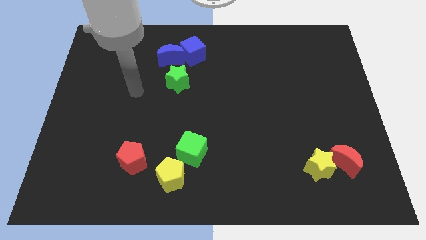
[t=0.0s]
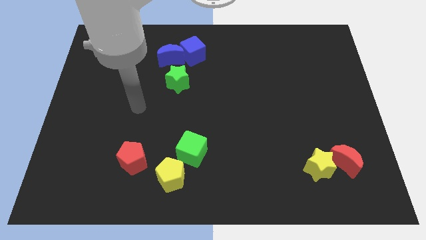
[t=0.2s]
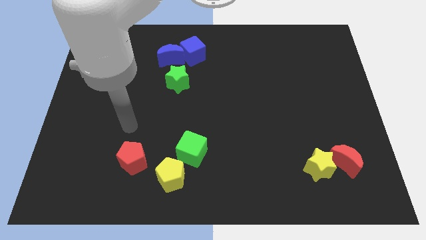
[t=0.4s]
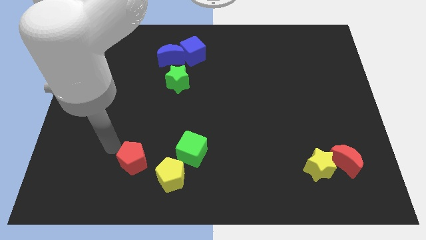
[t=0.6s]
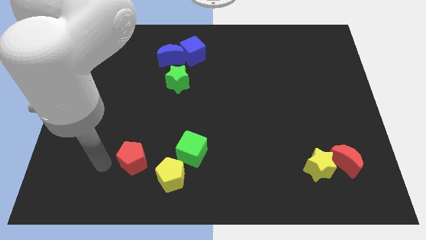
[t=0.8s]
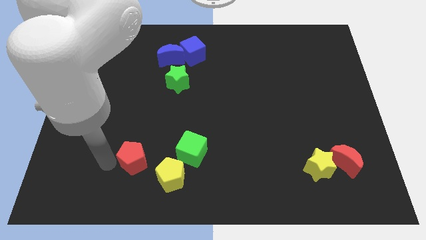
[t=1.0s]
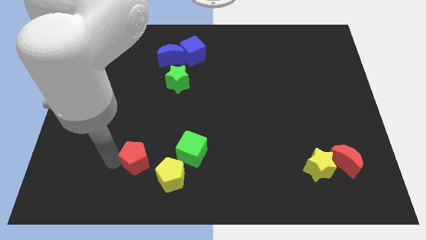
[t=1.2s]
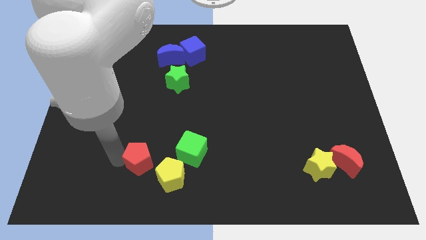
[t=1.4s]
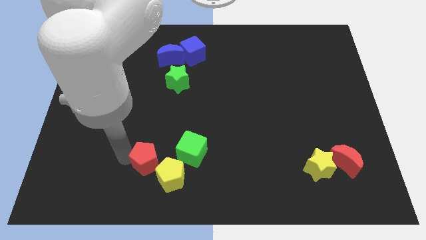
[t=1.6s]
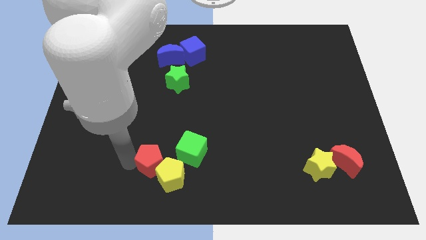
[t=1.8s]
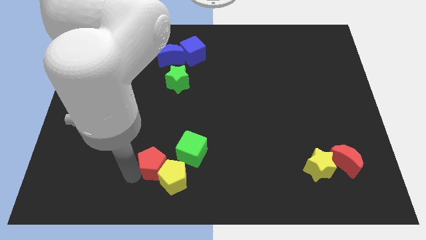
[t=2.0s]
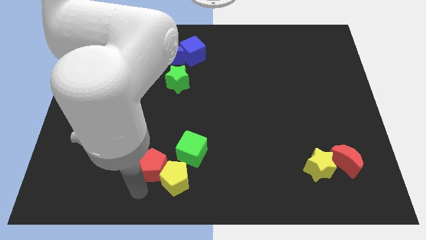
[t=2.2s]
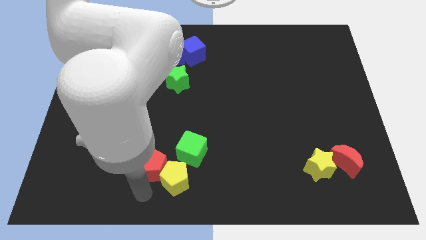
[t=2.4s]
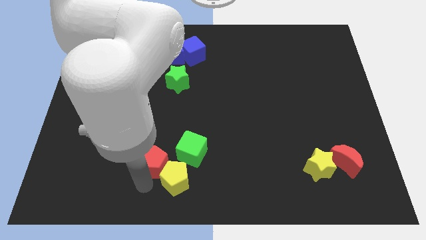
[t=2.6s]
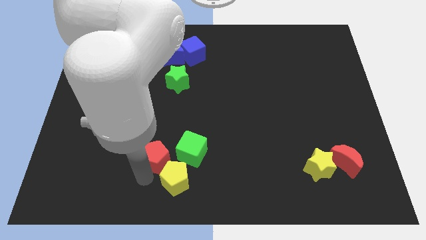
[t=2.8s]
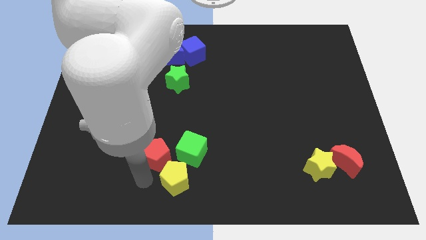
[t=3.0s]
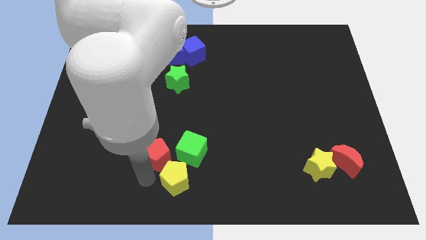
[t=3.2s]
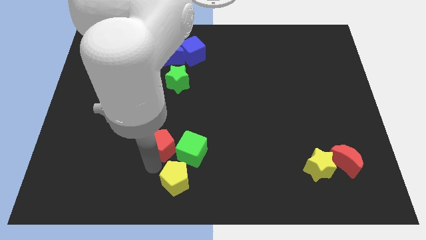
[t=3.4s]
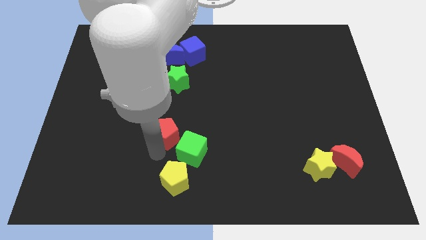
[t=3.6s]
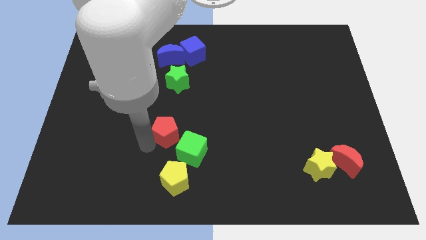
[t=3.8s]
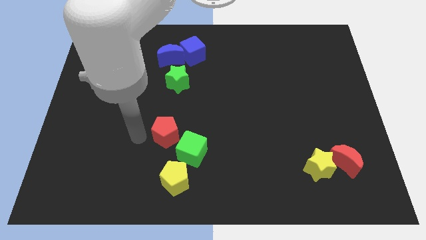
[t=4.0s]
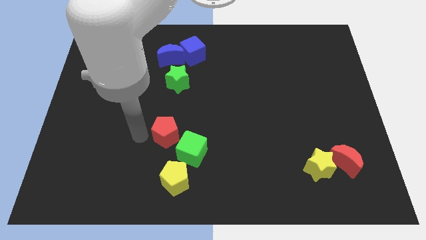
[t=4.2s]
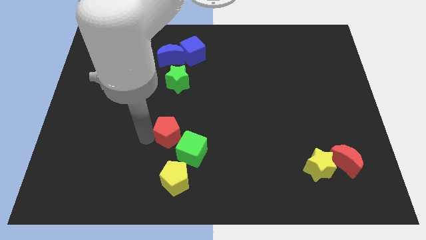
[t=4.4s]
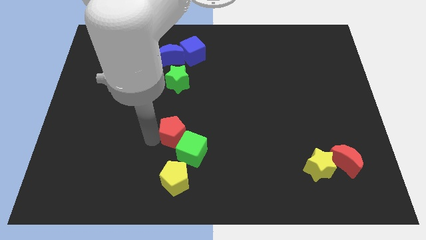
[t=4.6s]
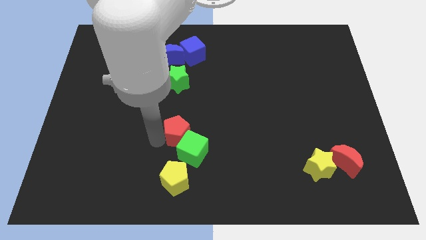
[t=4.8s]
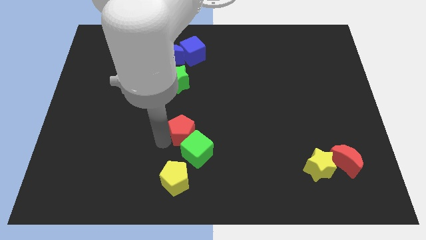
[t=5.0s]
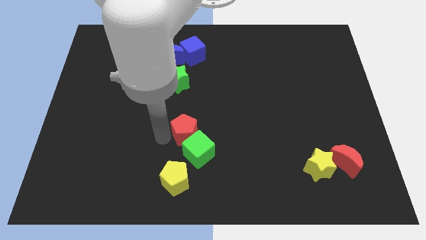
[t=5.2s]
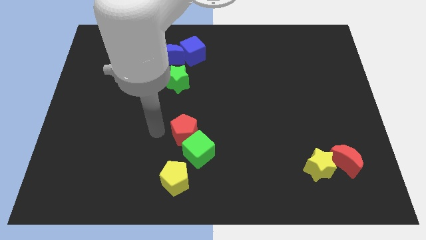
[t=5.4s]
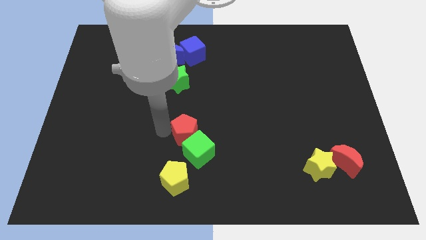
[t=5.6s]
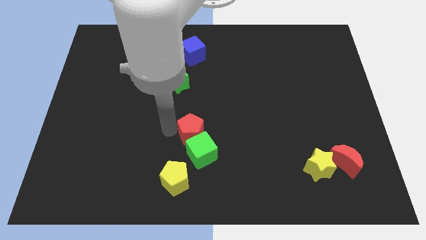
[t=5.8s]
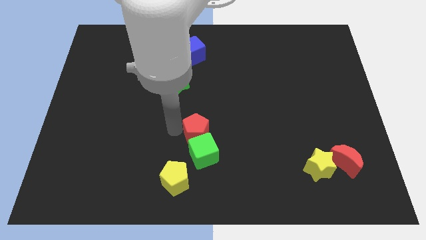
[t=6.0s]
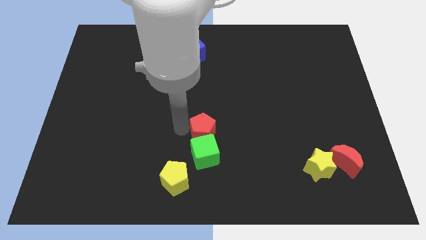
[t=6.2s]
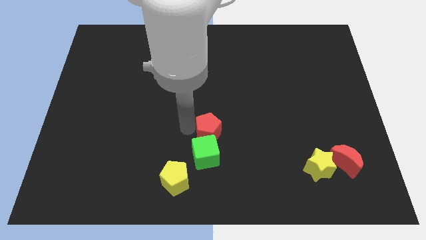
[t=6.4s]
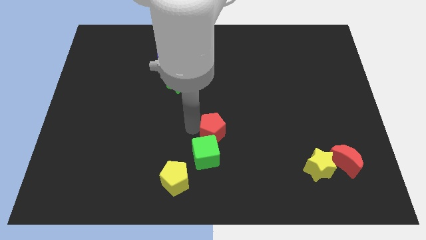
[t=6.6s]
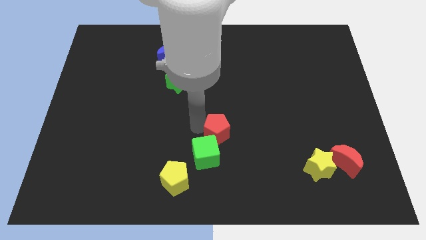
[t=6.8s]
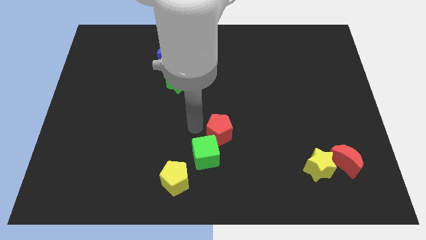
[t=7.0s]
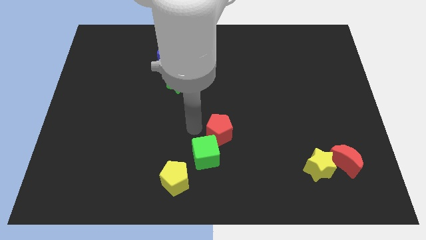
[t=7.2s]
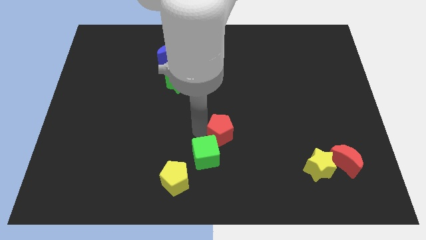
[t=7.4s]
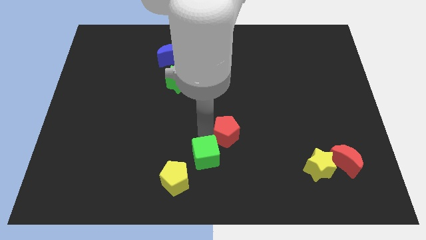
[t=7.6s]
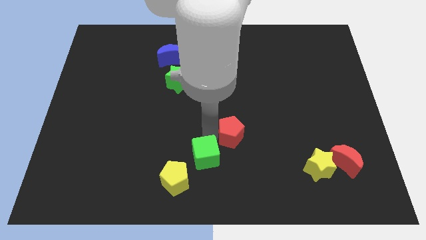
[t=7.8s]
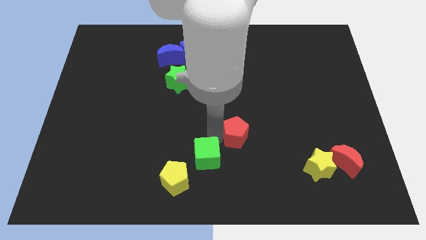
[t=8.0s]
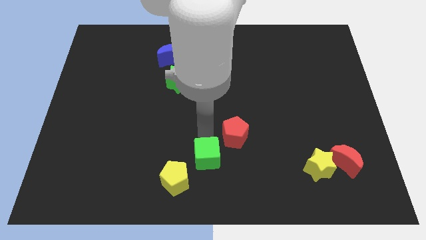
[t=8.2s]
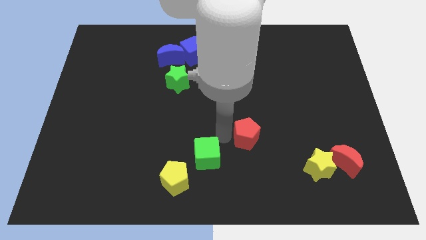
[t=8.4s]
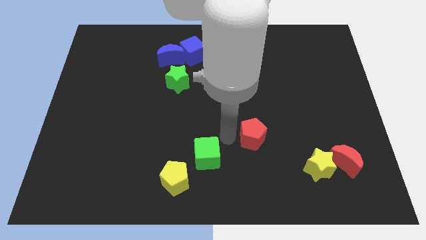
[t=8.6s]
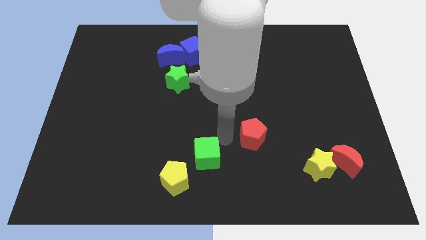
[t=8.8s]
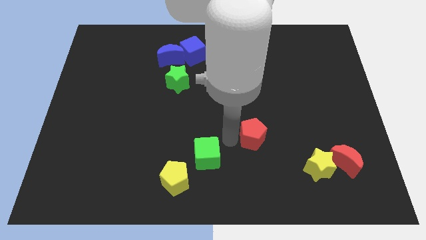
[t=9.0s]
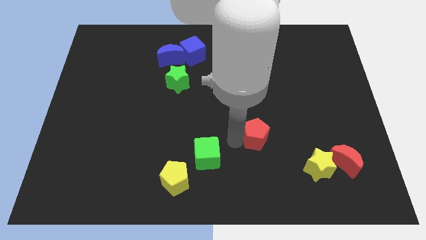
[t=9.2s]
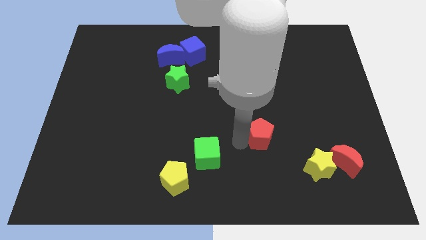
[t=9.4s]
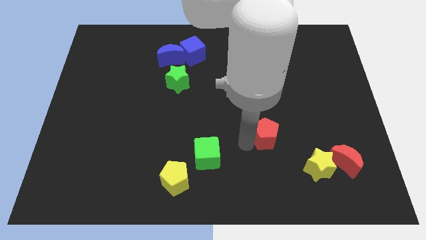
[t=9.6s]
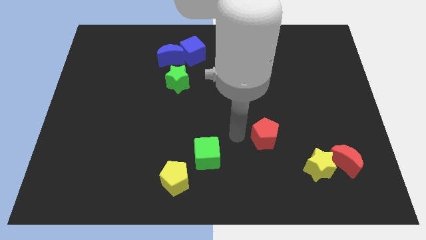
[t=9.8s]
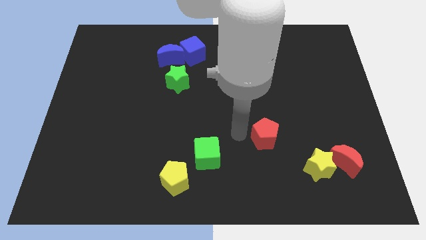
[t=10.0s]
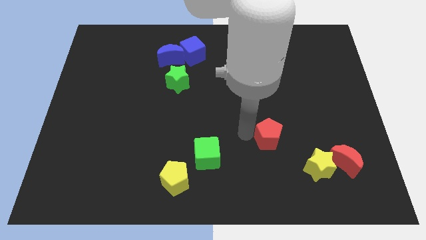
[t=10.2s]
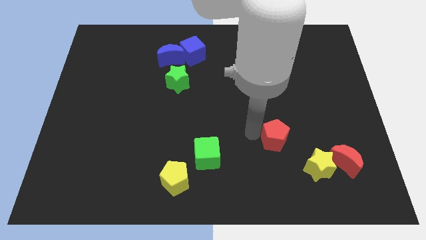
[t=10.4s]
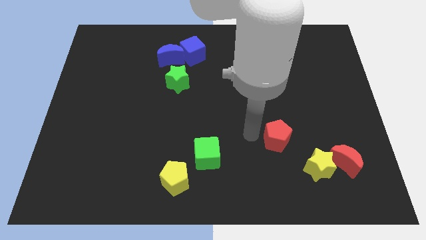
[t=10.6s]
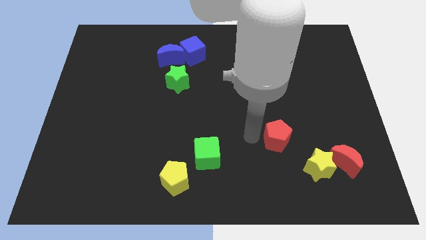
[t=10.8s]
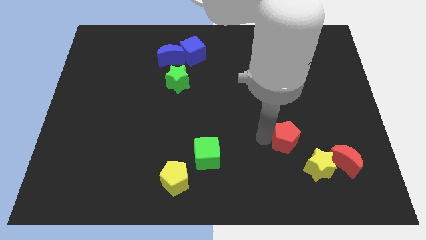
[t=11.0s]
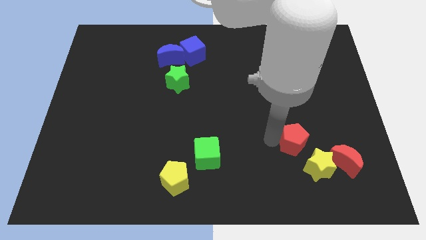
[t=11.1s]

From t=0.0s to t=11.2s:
put the red pentagon to the top left of the red moon
